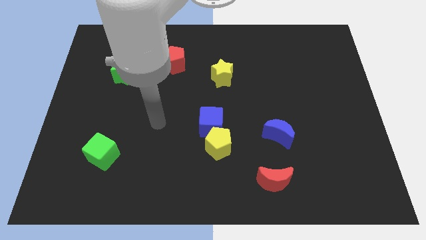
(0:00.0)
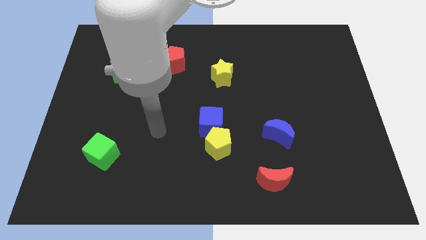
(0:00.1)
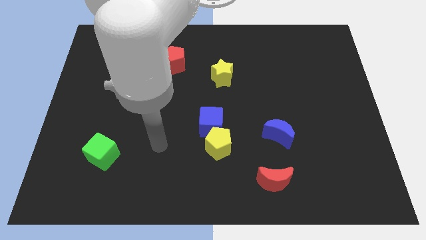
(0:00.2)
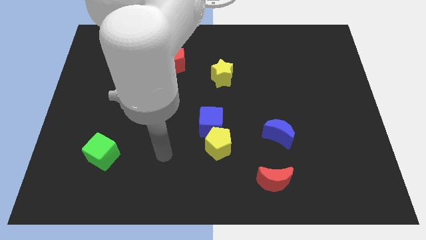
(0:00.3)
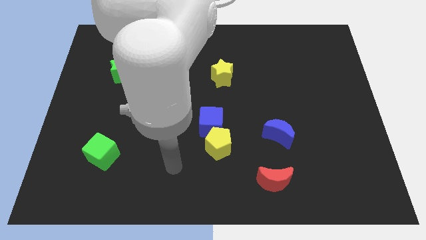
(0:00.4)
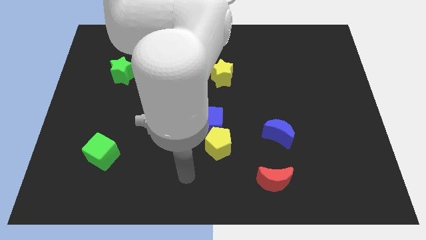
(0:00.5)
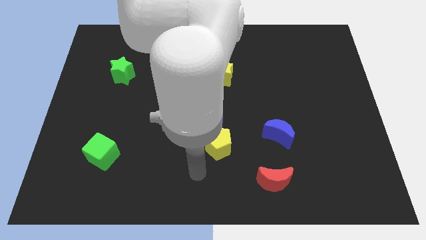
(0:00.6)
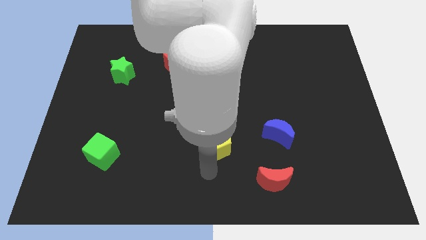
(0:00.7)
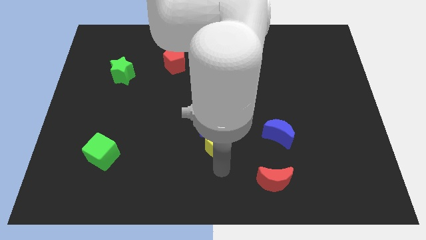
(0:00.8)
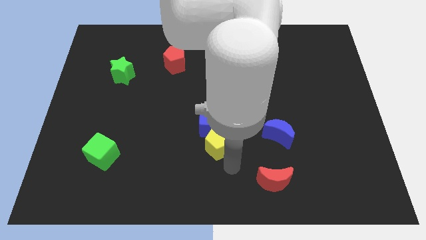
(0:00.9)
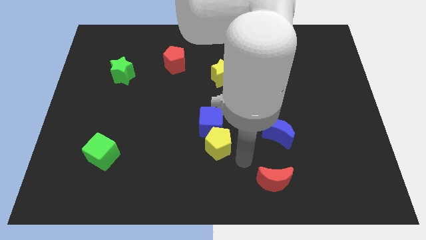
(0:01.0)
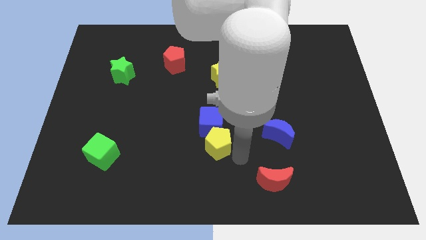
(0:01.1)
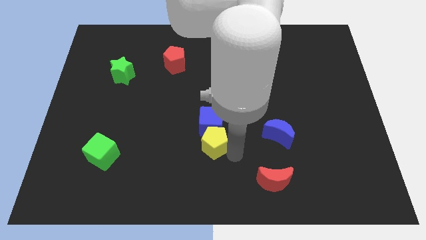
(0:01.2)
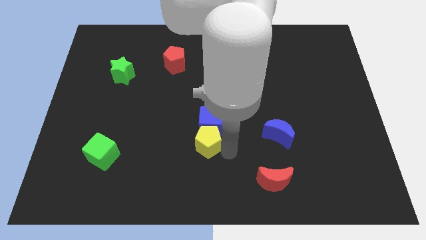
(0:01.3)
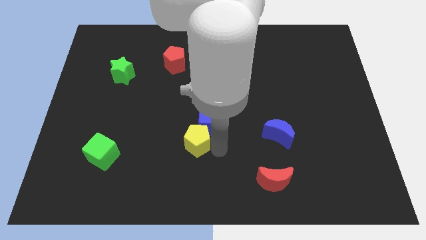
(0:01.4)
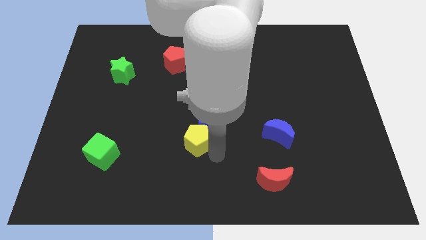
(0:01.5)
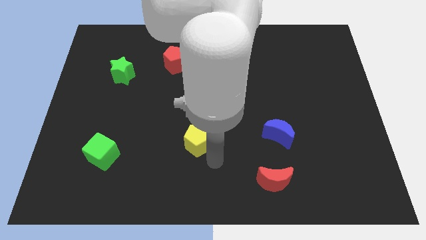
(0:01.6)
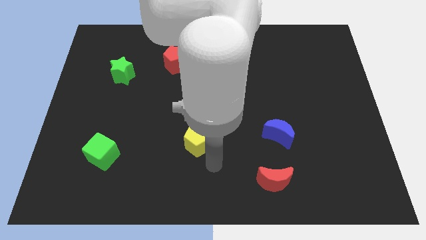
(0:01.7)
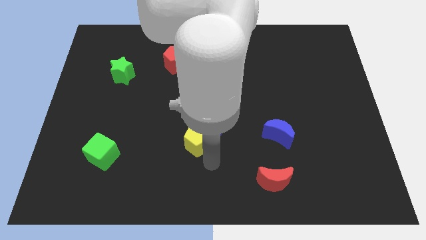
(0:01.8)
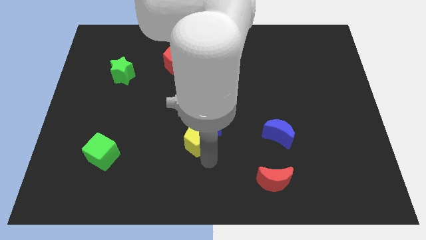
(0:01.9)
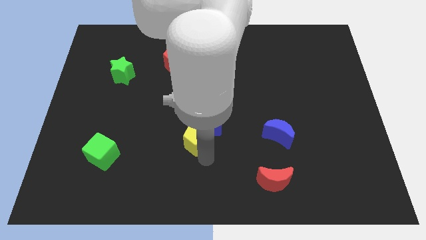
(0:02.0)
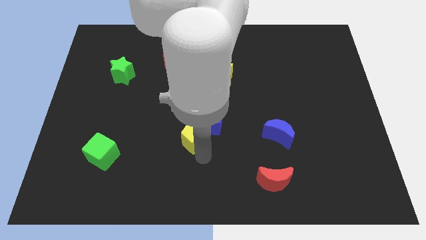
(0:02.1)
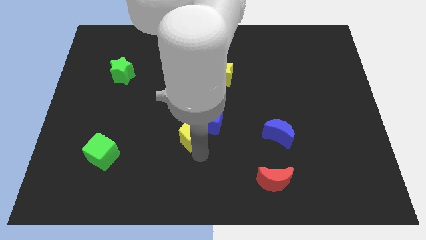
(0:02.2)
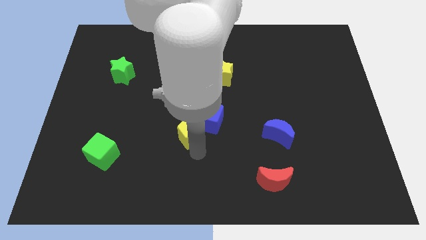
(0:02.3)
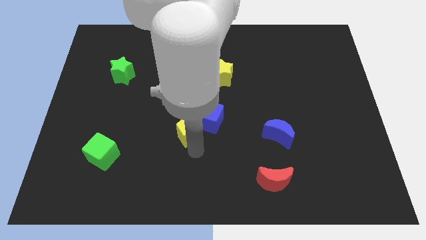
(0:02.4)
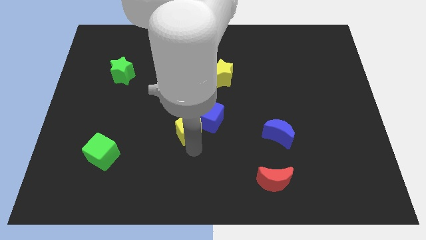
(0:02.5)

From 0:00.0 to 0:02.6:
slightly push the yellow pentagon up and then to the left

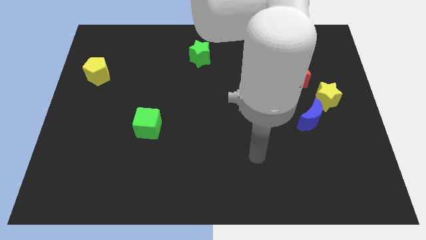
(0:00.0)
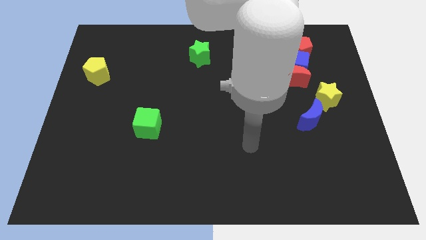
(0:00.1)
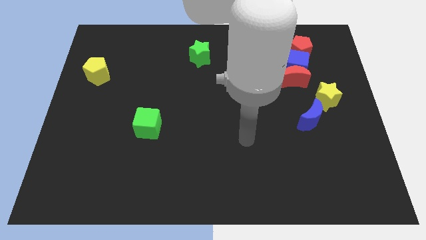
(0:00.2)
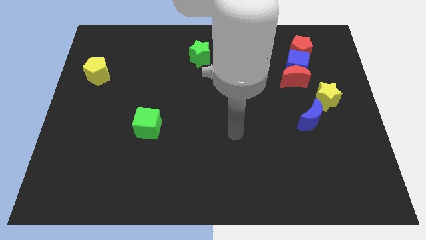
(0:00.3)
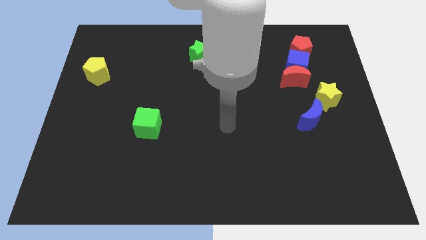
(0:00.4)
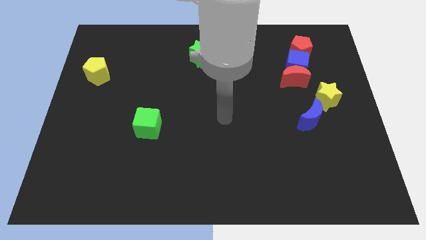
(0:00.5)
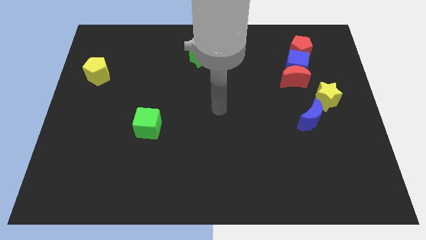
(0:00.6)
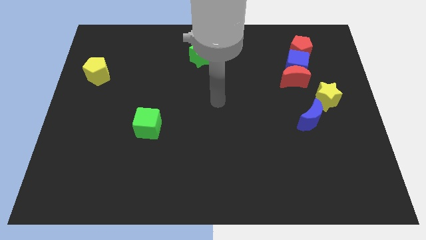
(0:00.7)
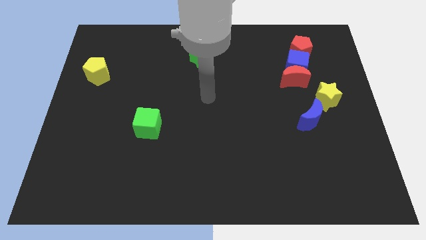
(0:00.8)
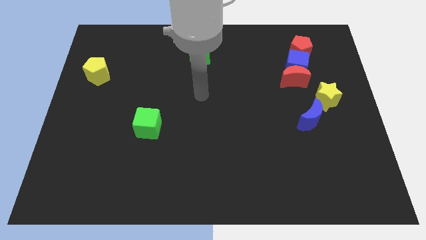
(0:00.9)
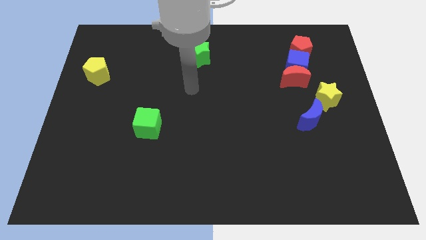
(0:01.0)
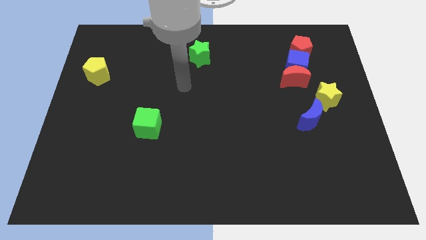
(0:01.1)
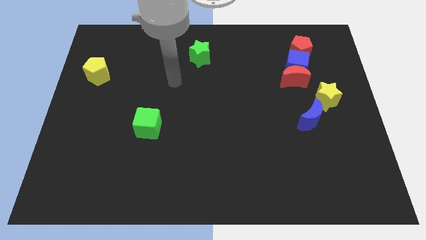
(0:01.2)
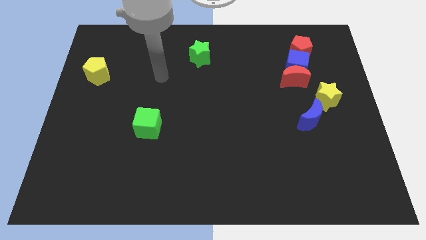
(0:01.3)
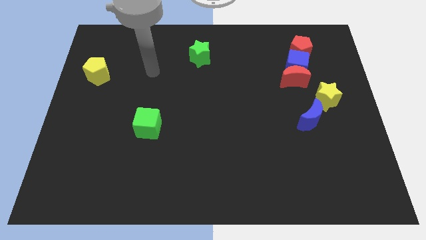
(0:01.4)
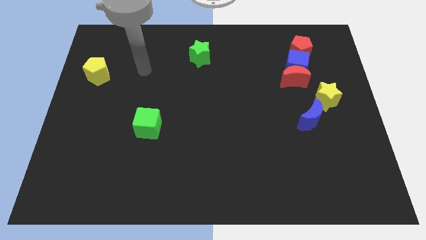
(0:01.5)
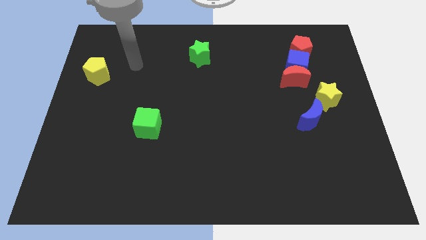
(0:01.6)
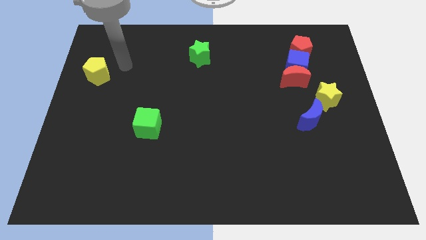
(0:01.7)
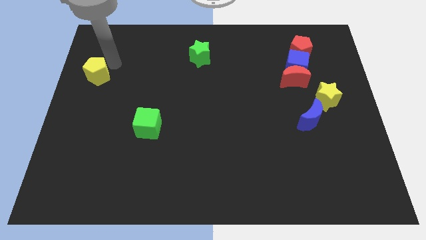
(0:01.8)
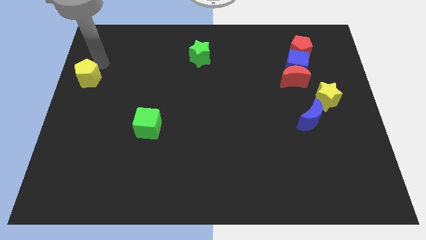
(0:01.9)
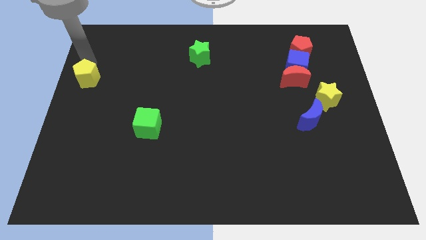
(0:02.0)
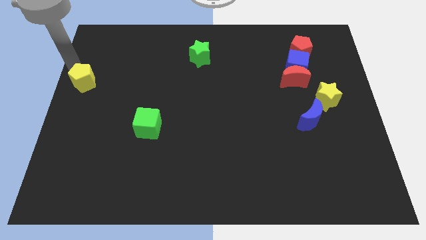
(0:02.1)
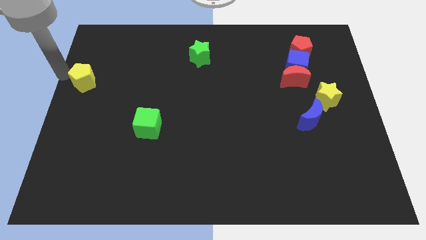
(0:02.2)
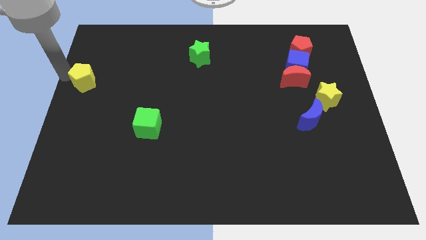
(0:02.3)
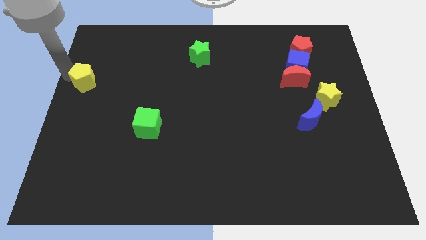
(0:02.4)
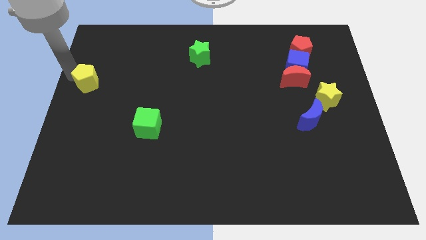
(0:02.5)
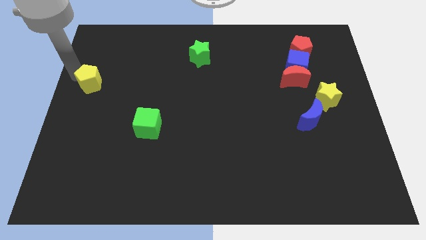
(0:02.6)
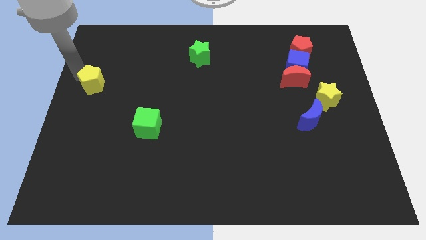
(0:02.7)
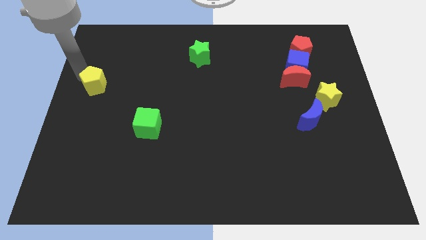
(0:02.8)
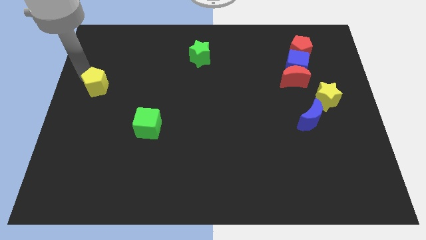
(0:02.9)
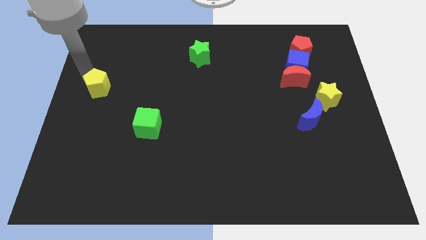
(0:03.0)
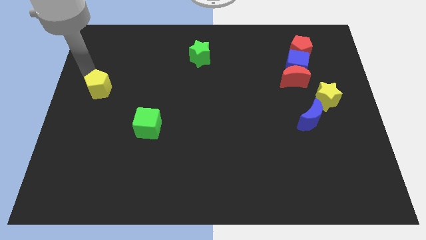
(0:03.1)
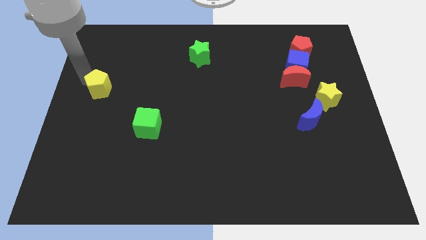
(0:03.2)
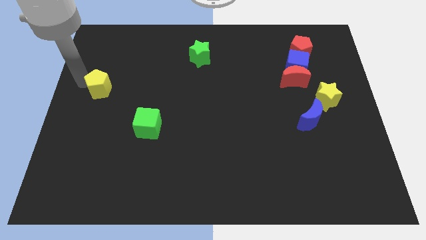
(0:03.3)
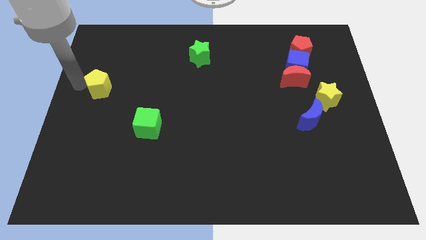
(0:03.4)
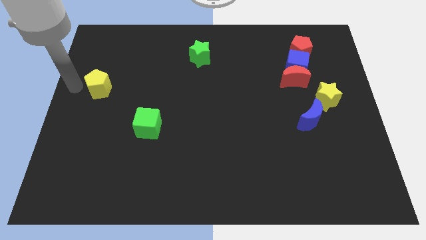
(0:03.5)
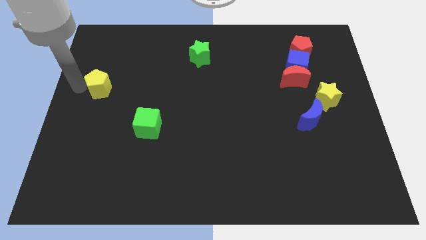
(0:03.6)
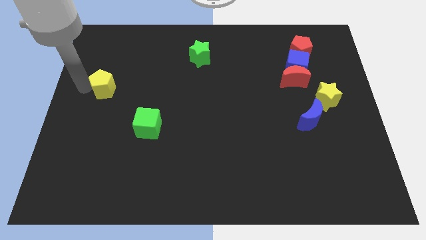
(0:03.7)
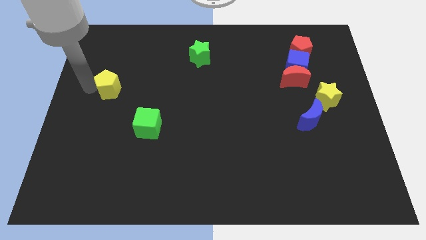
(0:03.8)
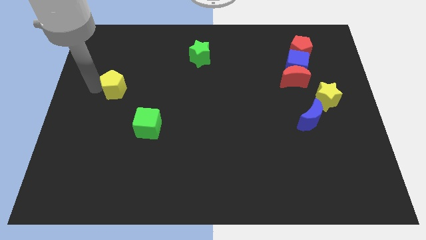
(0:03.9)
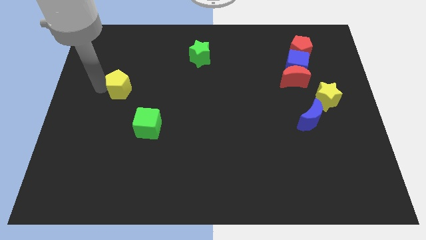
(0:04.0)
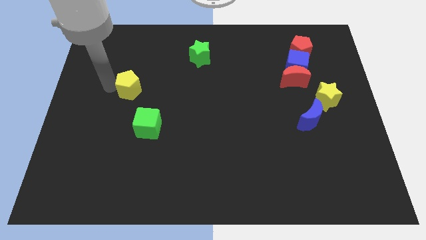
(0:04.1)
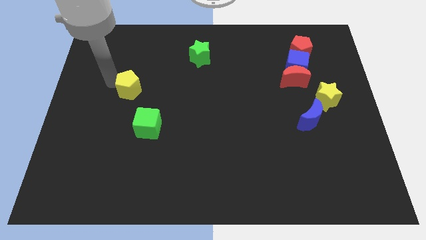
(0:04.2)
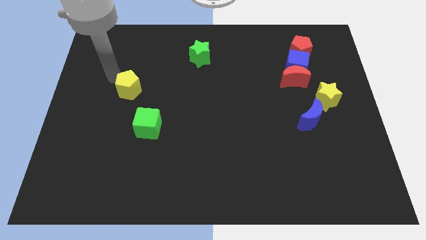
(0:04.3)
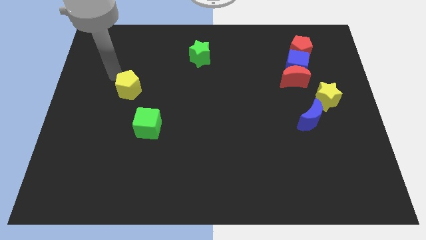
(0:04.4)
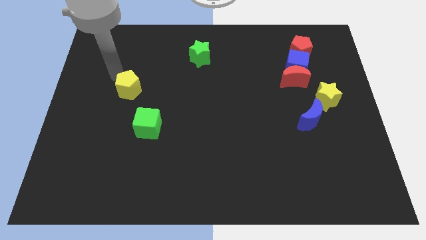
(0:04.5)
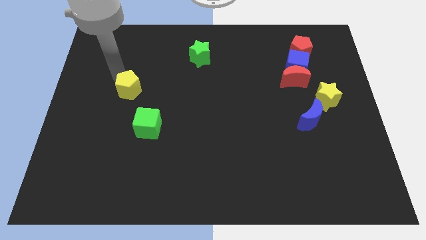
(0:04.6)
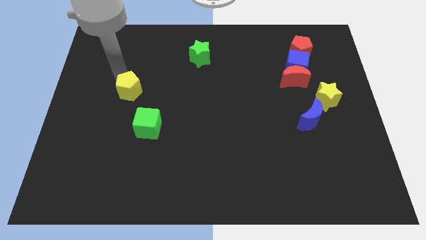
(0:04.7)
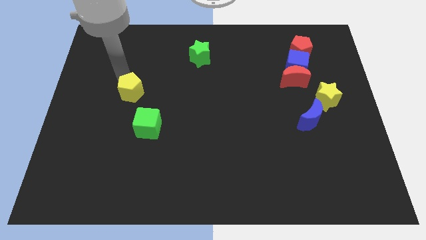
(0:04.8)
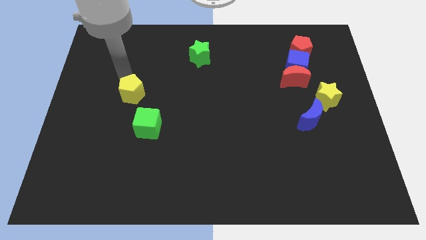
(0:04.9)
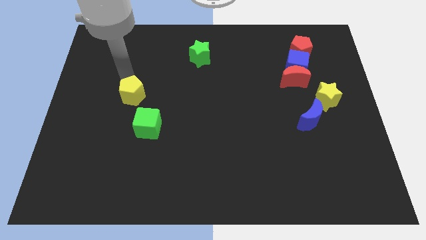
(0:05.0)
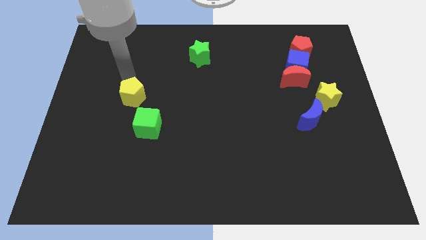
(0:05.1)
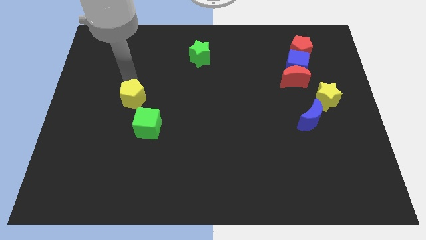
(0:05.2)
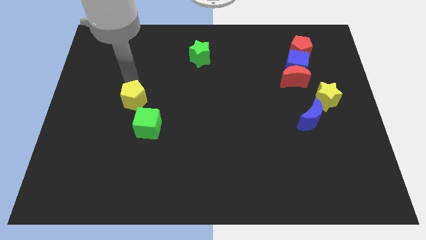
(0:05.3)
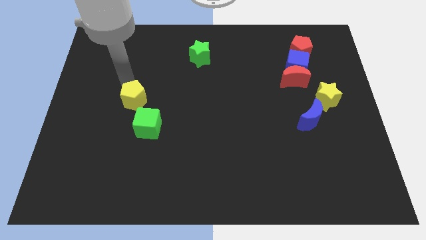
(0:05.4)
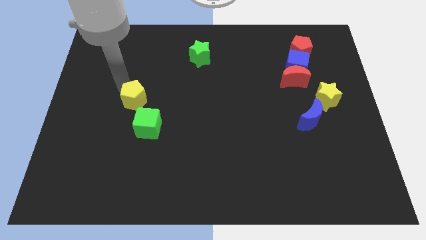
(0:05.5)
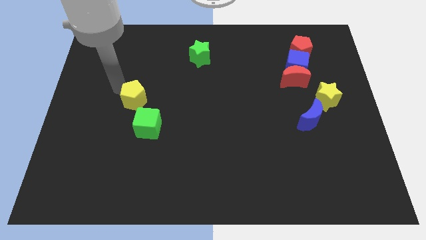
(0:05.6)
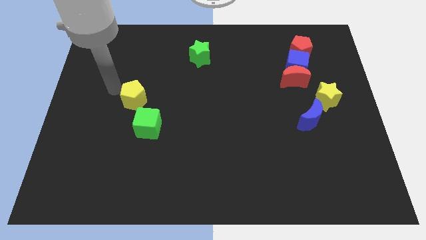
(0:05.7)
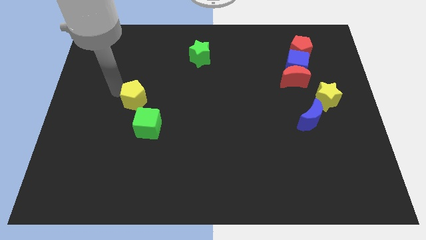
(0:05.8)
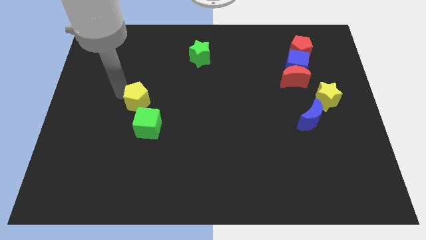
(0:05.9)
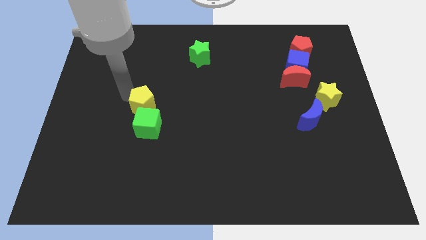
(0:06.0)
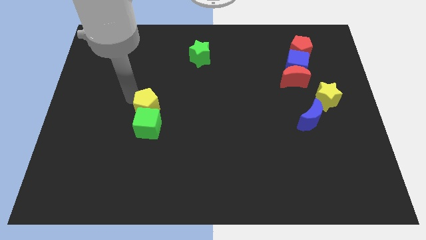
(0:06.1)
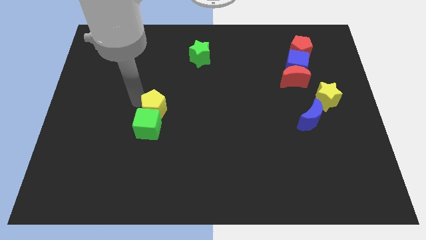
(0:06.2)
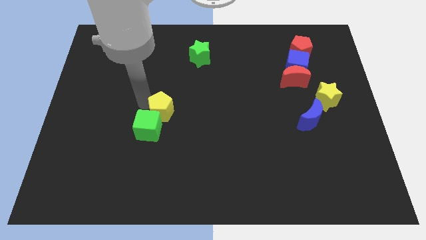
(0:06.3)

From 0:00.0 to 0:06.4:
push the yellow pentagon downwards and then right
